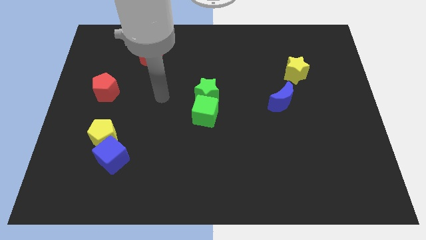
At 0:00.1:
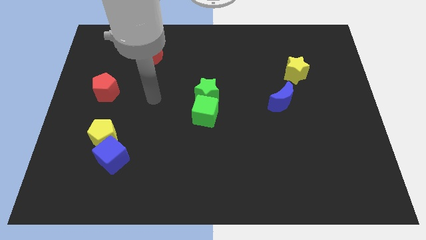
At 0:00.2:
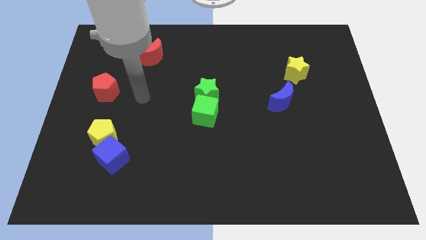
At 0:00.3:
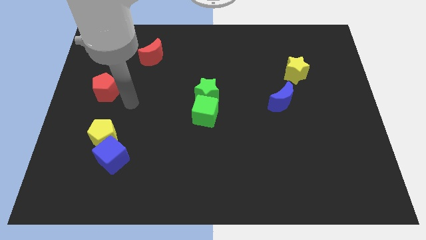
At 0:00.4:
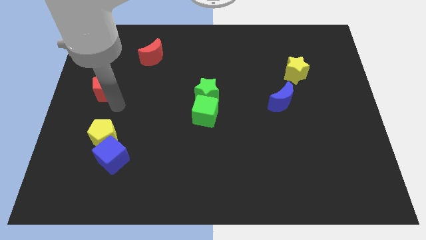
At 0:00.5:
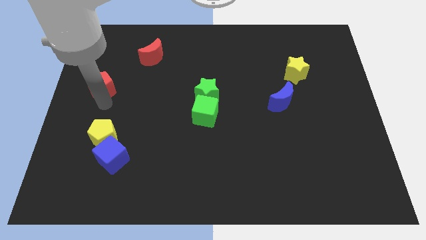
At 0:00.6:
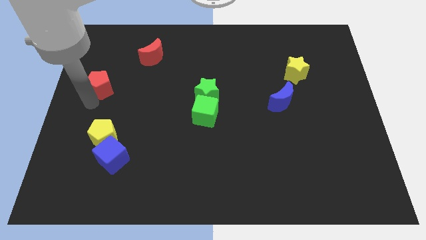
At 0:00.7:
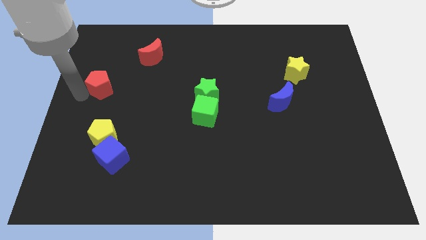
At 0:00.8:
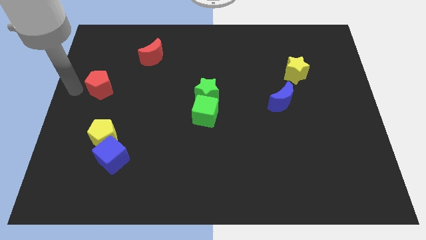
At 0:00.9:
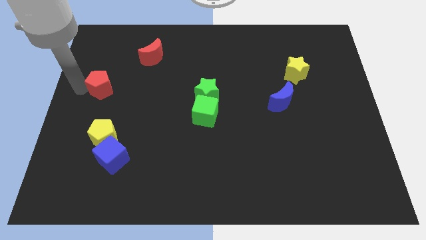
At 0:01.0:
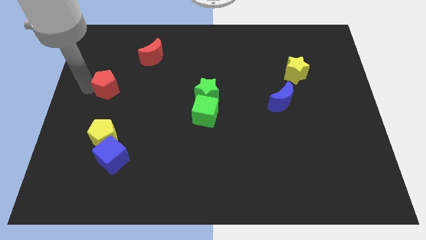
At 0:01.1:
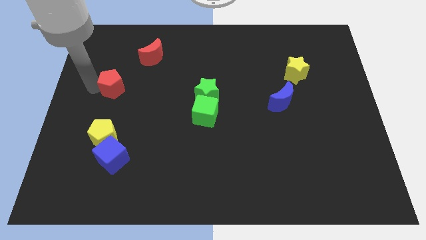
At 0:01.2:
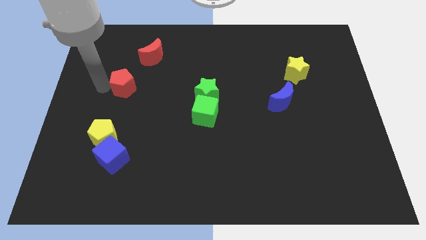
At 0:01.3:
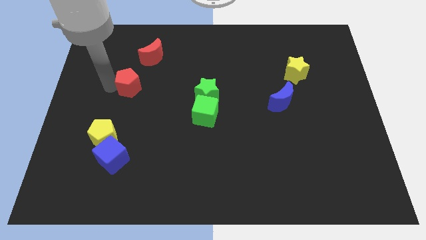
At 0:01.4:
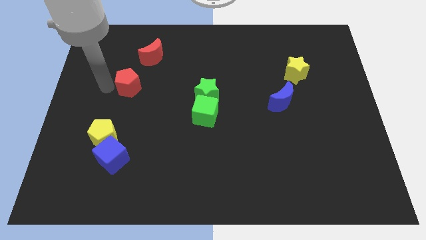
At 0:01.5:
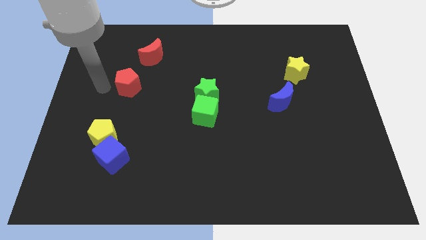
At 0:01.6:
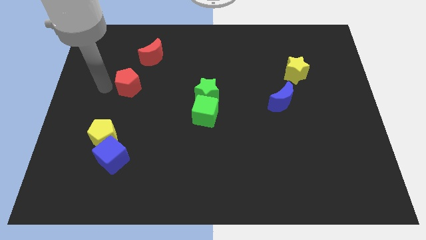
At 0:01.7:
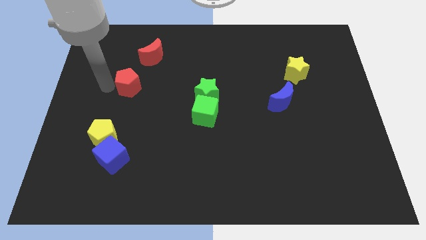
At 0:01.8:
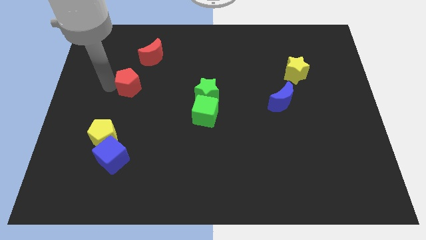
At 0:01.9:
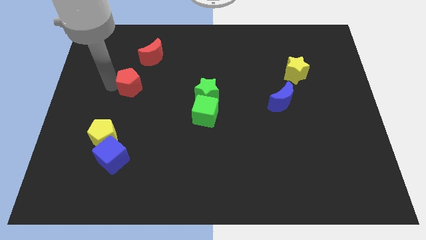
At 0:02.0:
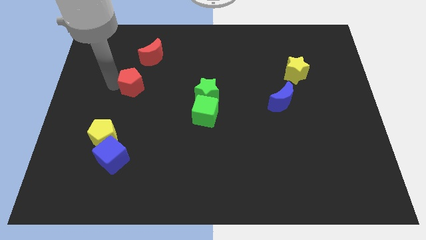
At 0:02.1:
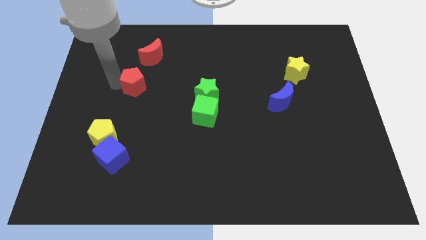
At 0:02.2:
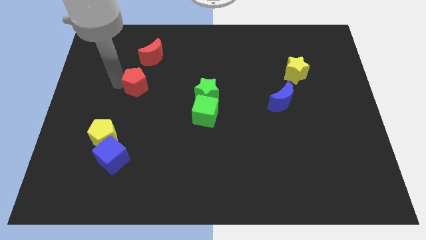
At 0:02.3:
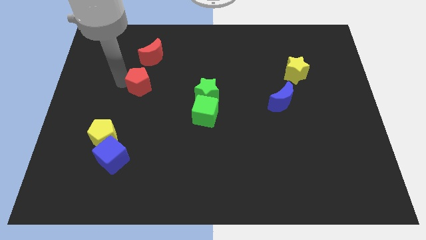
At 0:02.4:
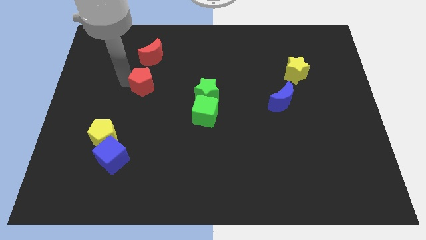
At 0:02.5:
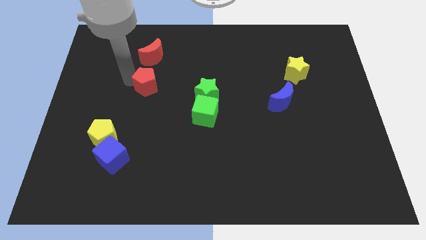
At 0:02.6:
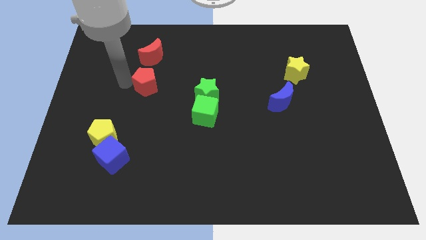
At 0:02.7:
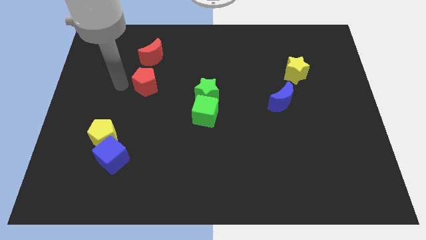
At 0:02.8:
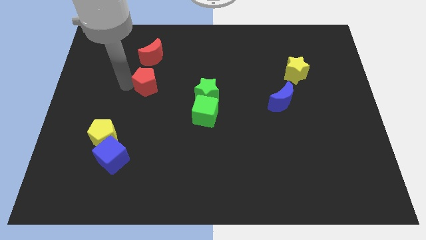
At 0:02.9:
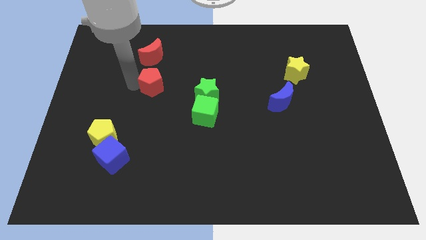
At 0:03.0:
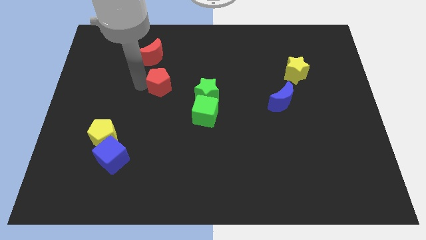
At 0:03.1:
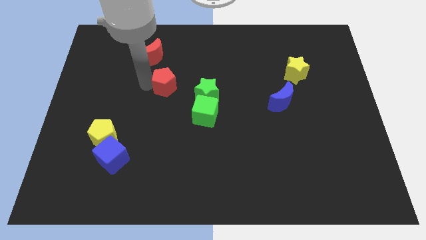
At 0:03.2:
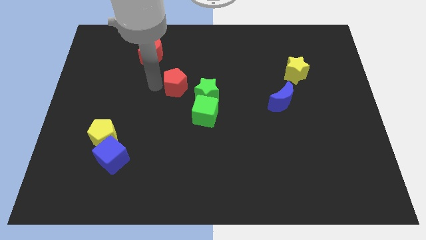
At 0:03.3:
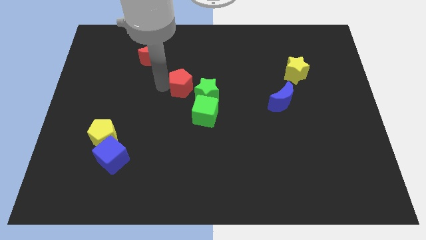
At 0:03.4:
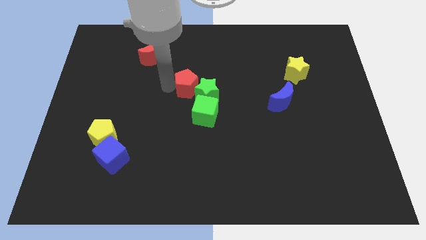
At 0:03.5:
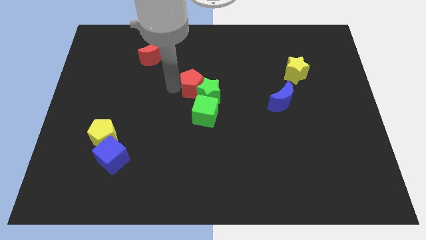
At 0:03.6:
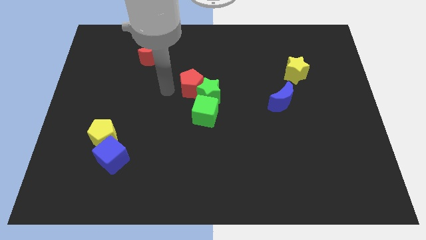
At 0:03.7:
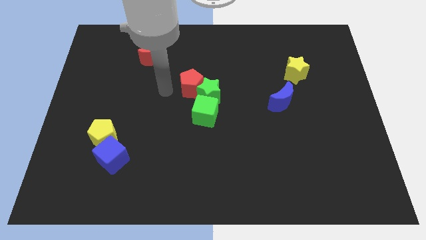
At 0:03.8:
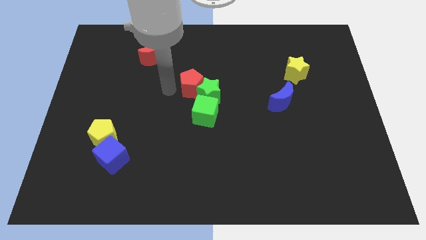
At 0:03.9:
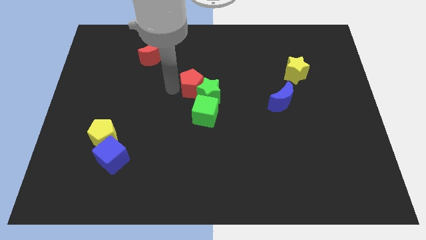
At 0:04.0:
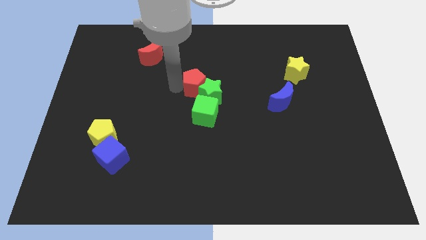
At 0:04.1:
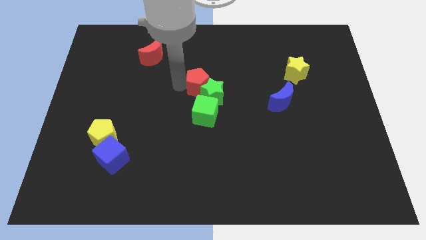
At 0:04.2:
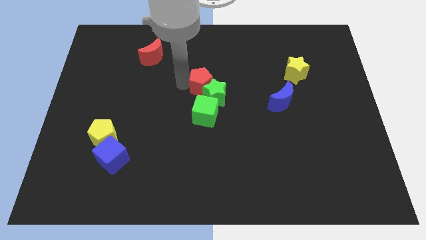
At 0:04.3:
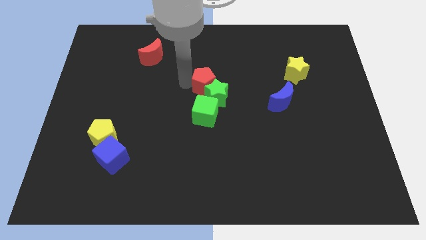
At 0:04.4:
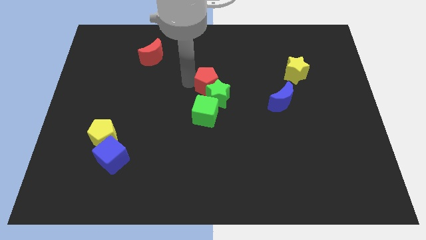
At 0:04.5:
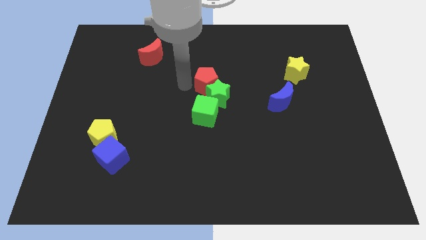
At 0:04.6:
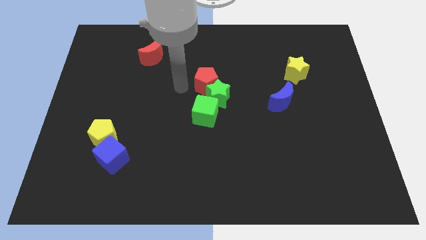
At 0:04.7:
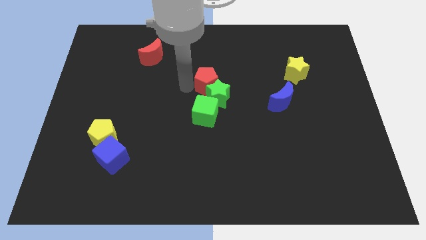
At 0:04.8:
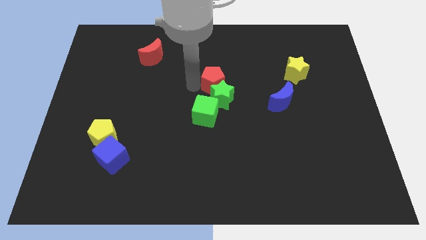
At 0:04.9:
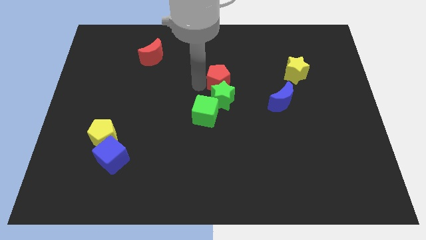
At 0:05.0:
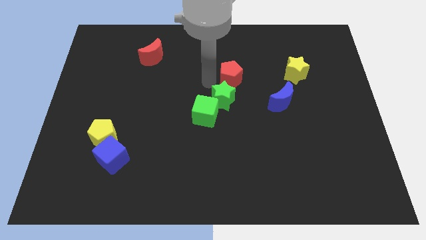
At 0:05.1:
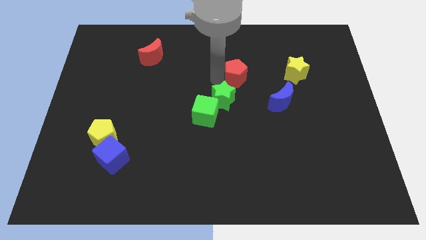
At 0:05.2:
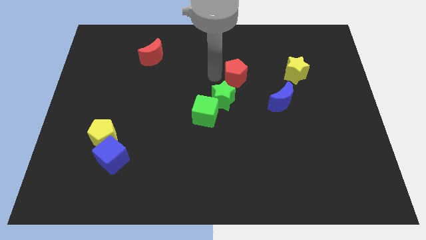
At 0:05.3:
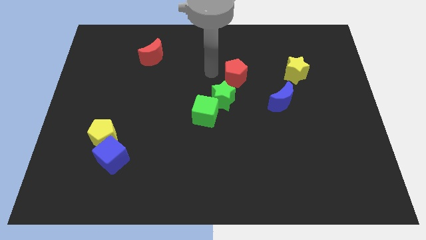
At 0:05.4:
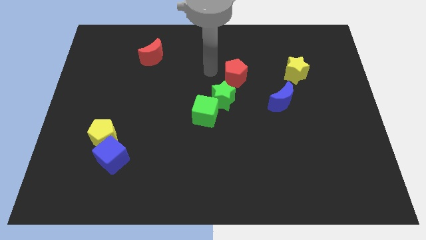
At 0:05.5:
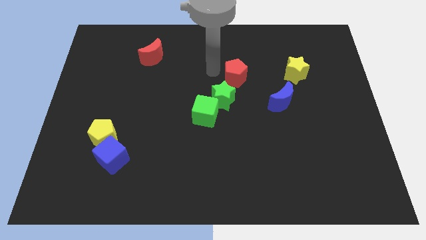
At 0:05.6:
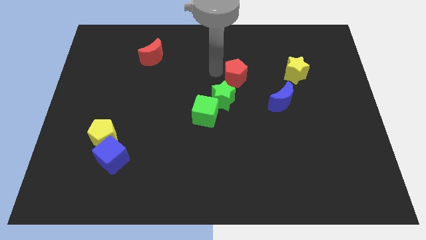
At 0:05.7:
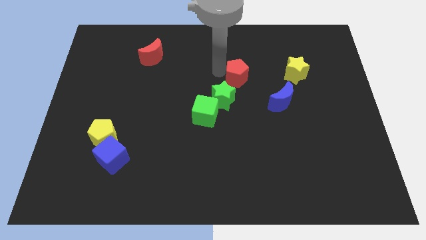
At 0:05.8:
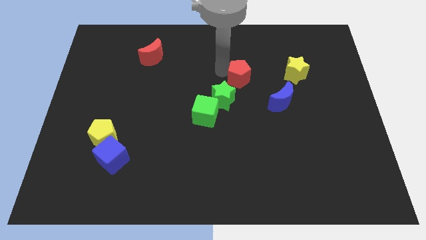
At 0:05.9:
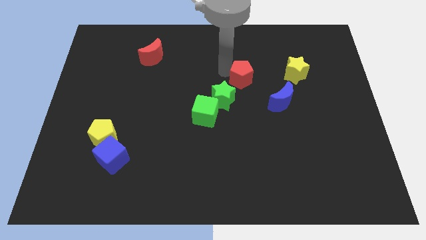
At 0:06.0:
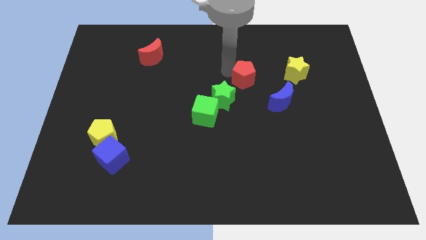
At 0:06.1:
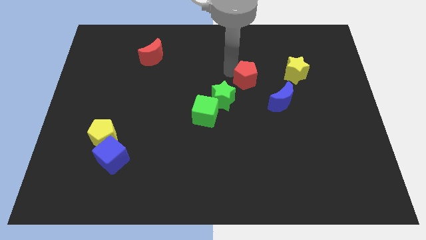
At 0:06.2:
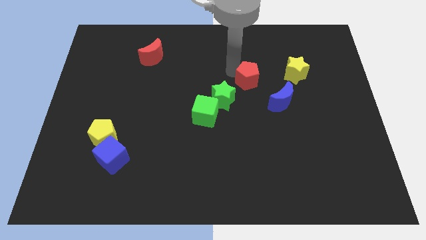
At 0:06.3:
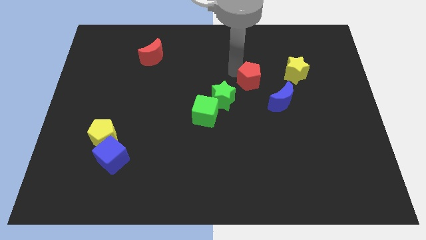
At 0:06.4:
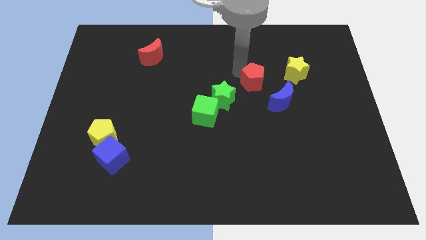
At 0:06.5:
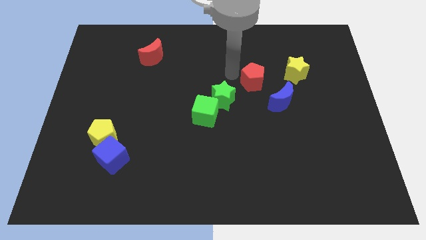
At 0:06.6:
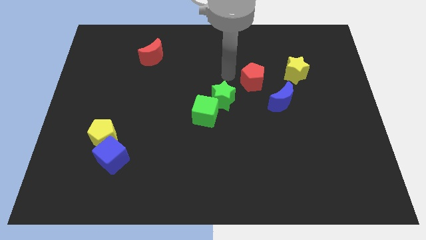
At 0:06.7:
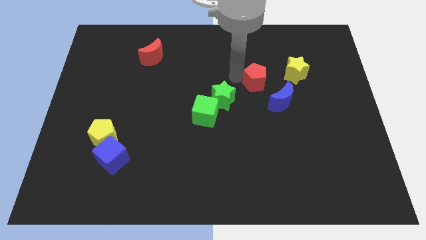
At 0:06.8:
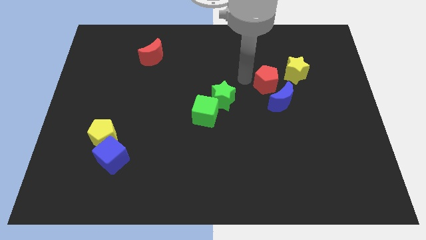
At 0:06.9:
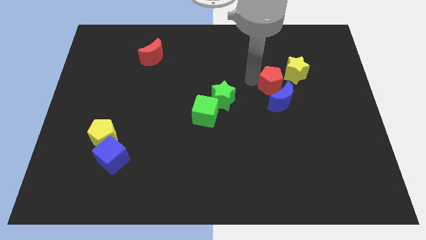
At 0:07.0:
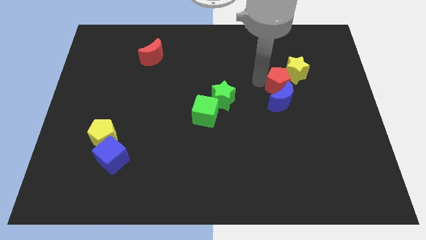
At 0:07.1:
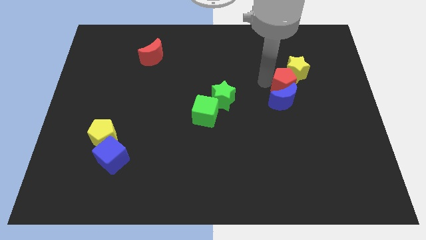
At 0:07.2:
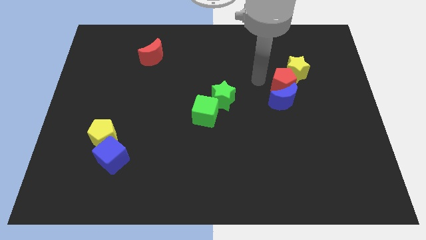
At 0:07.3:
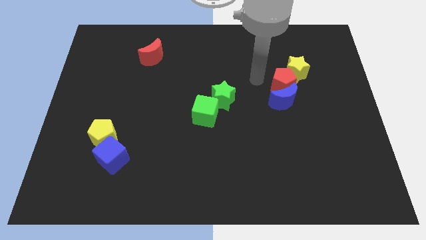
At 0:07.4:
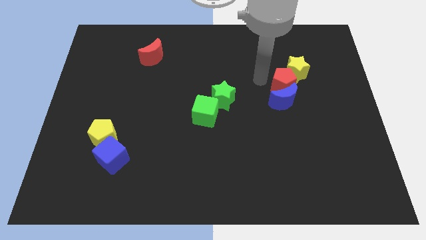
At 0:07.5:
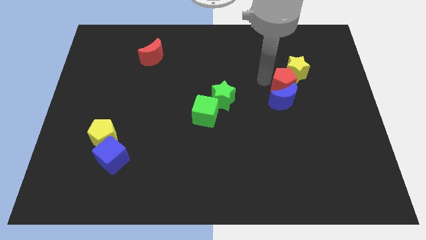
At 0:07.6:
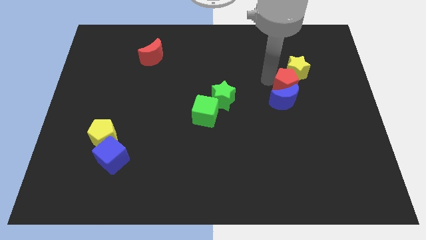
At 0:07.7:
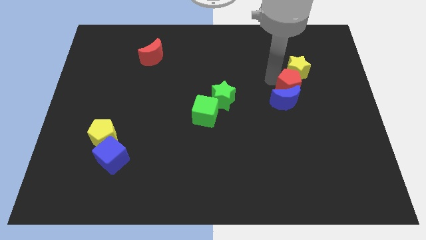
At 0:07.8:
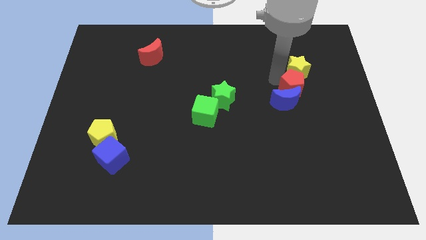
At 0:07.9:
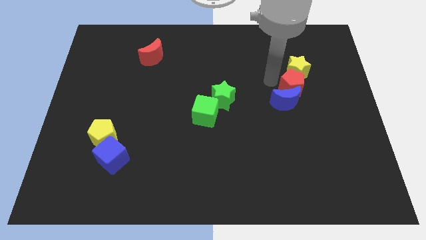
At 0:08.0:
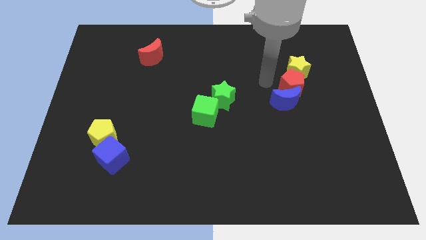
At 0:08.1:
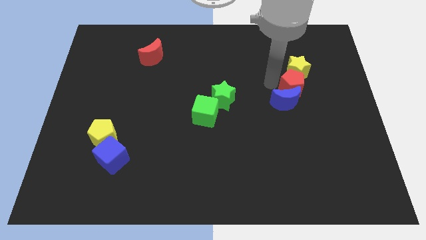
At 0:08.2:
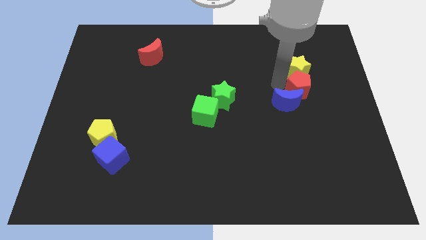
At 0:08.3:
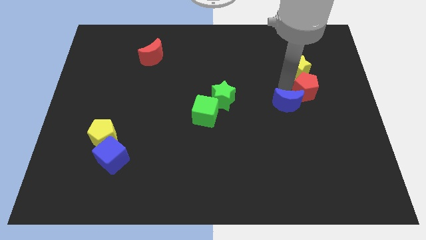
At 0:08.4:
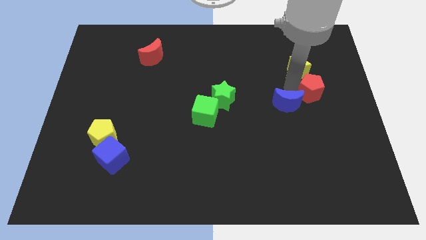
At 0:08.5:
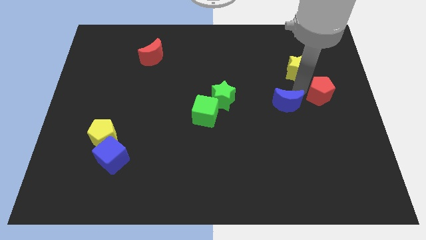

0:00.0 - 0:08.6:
move the red pentagon to the center right
